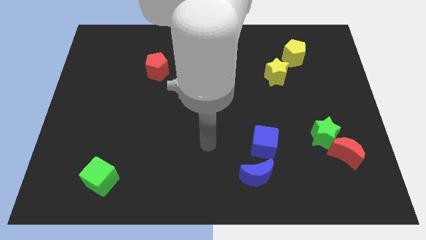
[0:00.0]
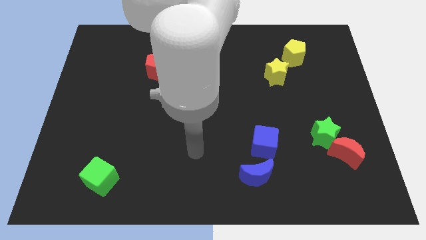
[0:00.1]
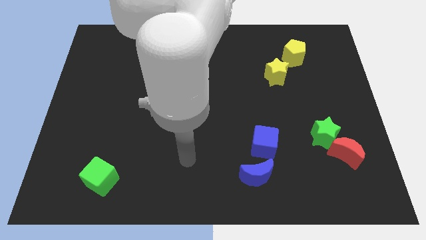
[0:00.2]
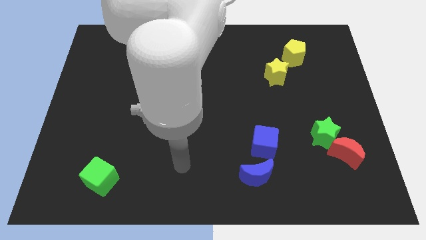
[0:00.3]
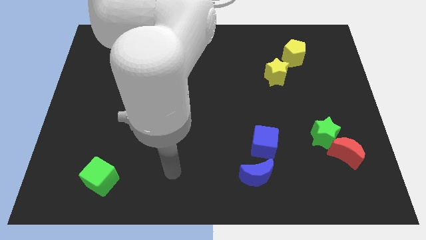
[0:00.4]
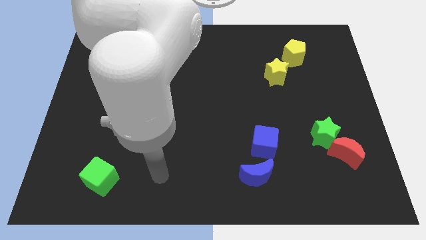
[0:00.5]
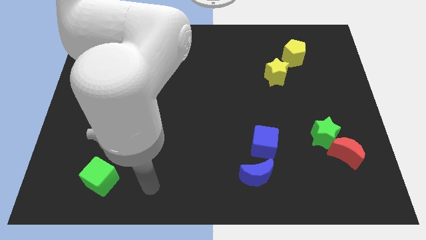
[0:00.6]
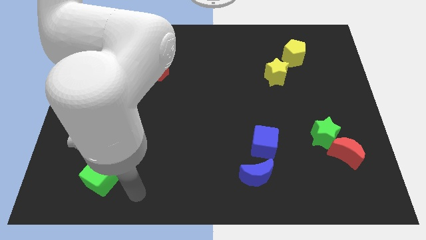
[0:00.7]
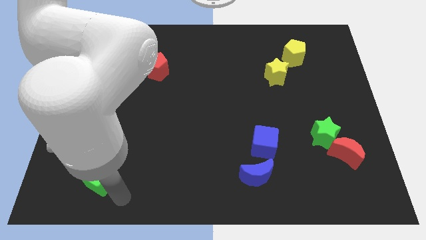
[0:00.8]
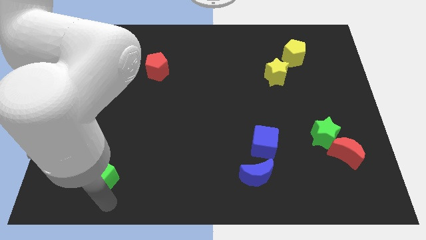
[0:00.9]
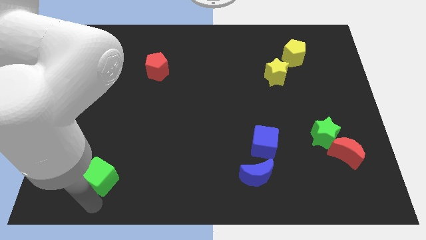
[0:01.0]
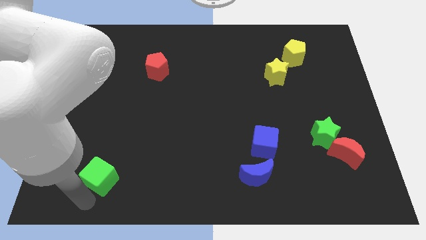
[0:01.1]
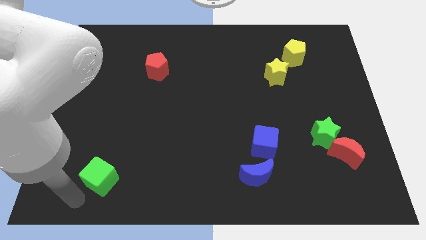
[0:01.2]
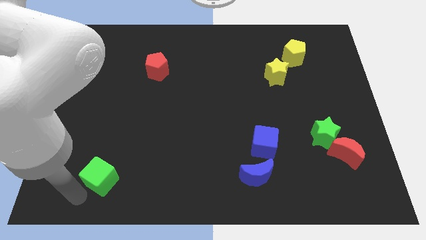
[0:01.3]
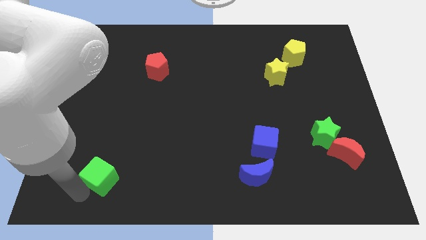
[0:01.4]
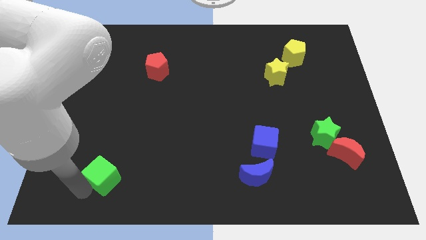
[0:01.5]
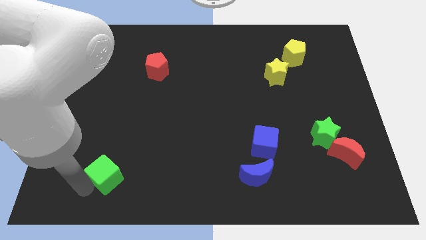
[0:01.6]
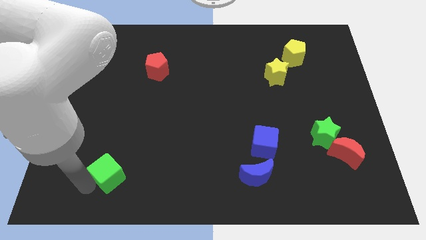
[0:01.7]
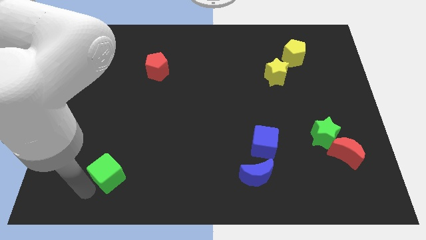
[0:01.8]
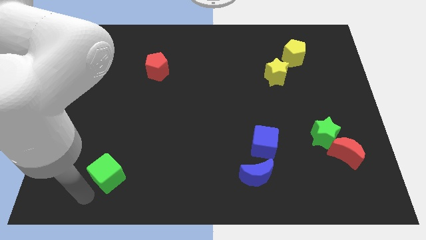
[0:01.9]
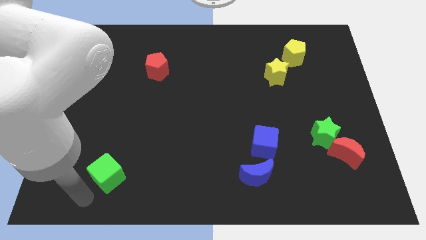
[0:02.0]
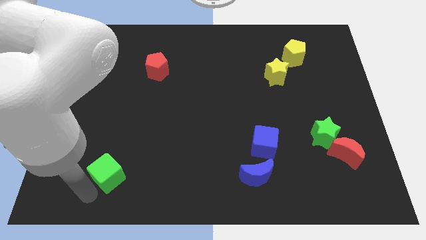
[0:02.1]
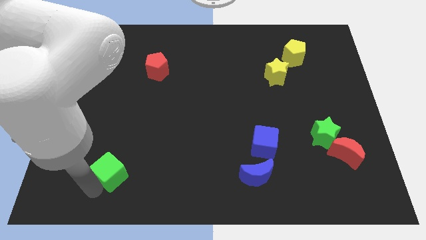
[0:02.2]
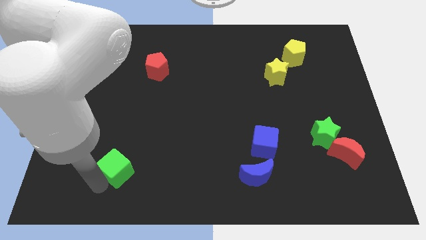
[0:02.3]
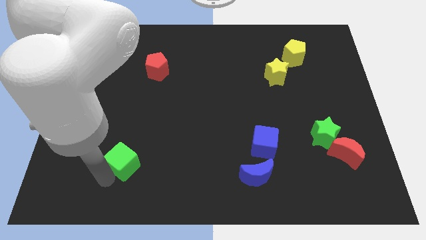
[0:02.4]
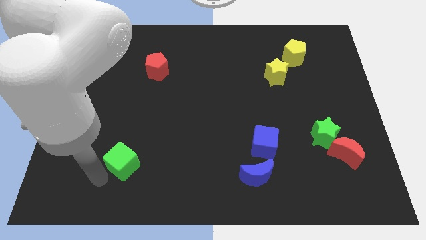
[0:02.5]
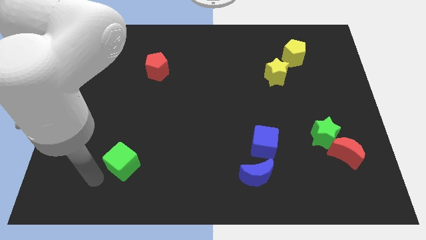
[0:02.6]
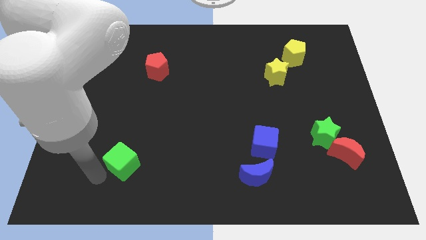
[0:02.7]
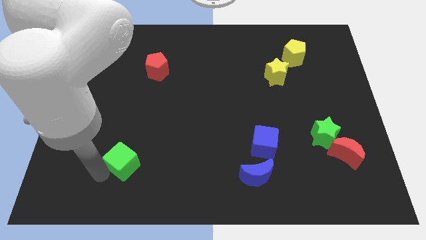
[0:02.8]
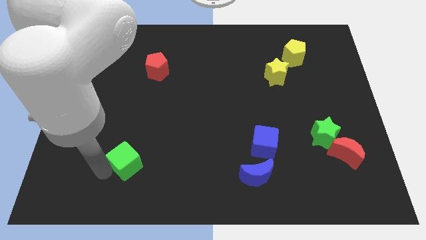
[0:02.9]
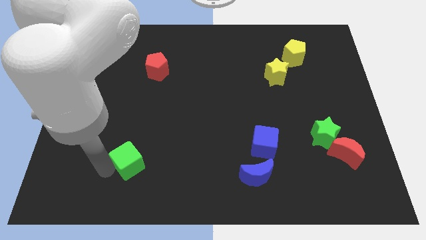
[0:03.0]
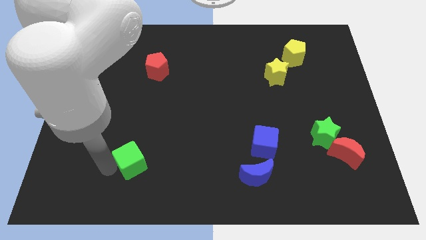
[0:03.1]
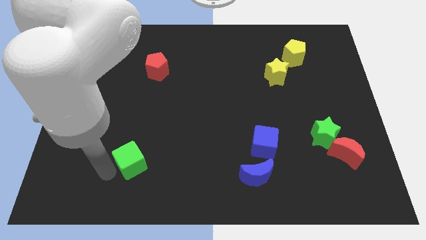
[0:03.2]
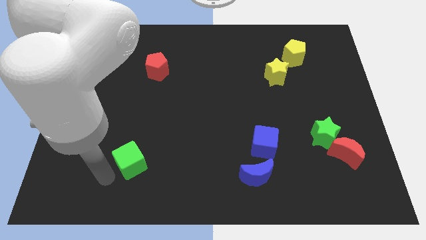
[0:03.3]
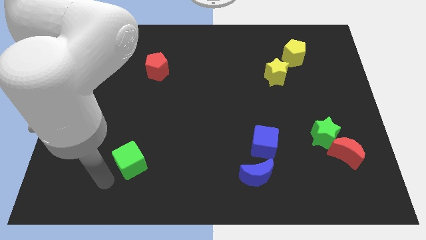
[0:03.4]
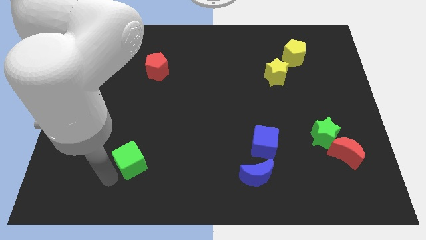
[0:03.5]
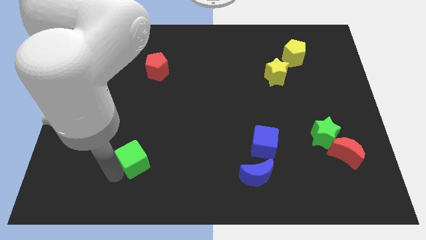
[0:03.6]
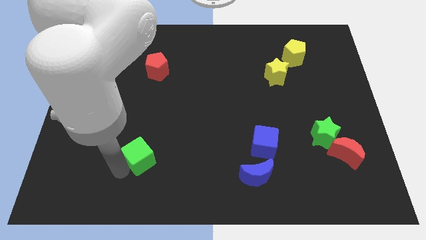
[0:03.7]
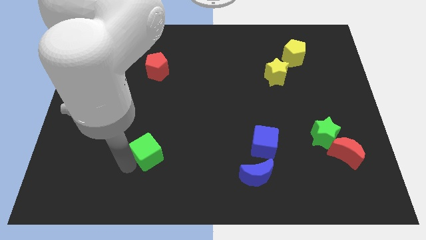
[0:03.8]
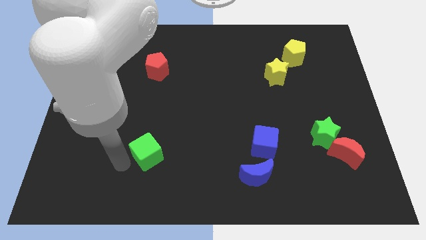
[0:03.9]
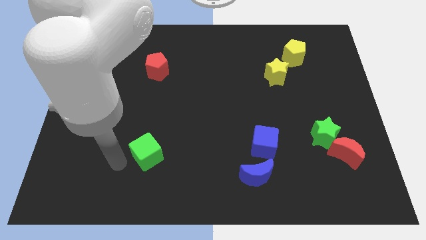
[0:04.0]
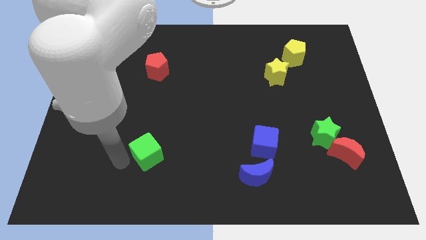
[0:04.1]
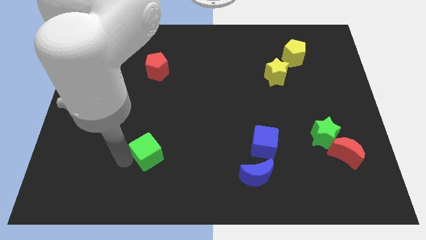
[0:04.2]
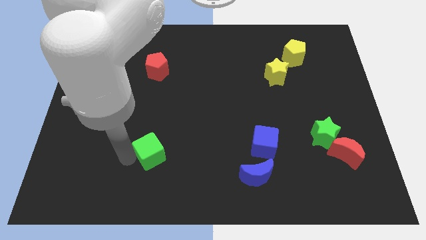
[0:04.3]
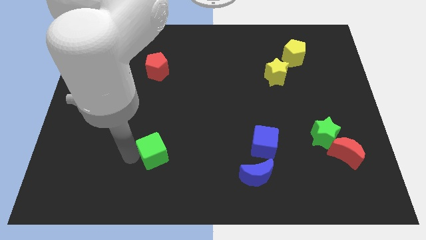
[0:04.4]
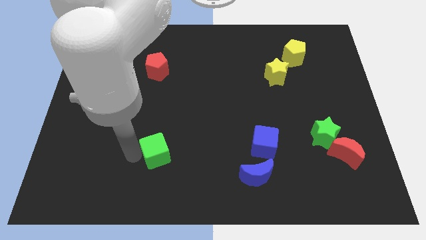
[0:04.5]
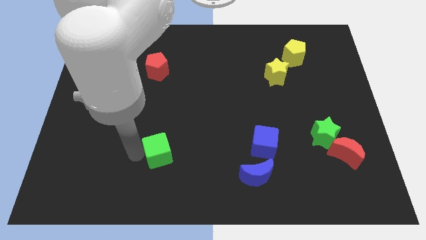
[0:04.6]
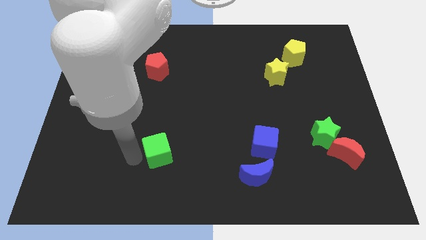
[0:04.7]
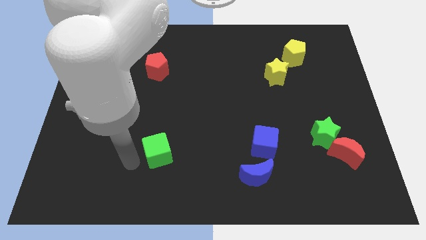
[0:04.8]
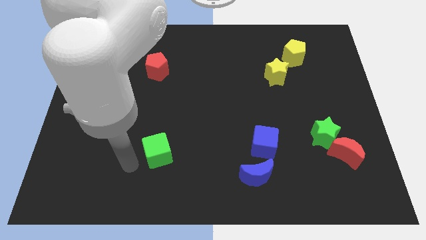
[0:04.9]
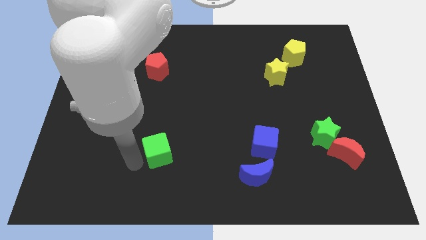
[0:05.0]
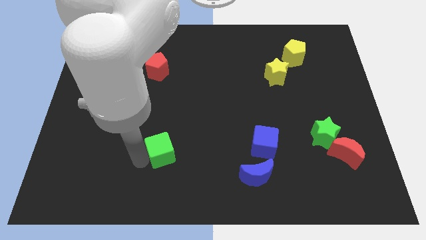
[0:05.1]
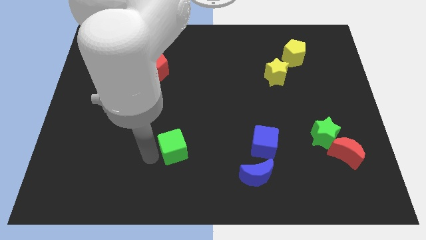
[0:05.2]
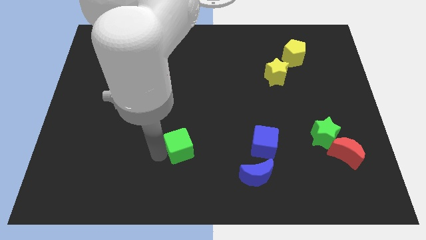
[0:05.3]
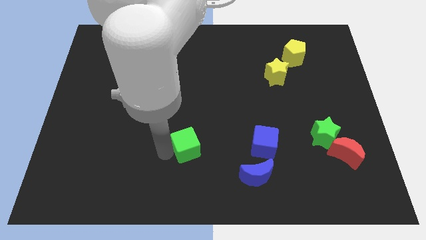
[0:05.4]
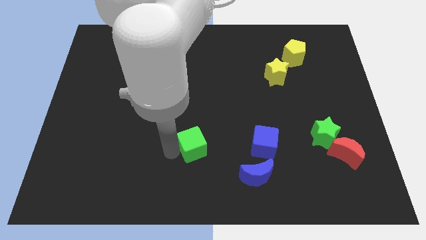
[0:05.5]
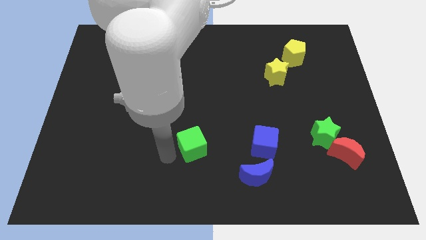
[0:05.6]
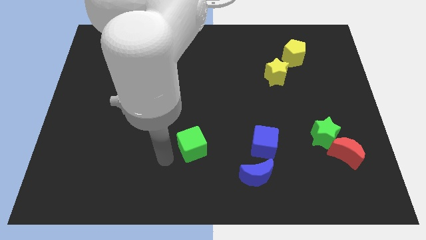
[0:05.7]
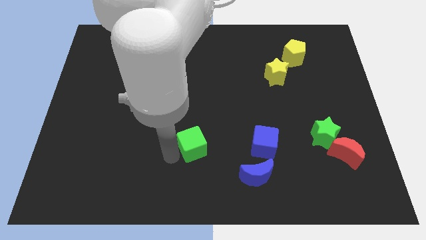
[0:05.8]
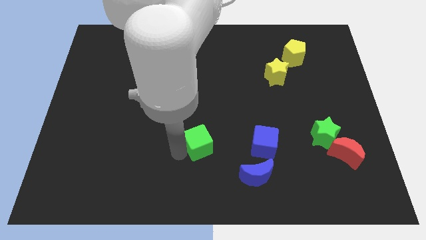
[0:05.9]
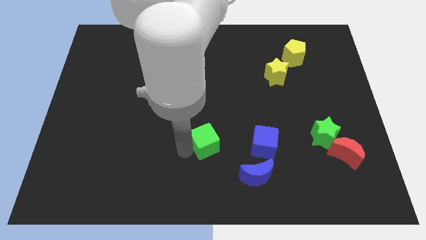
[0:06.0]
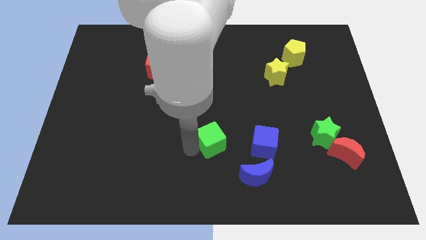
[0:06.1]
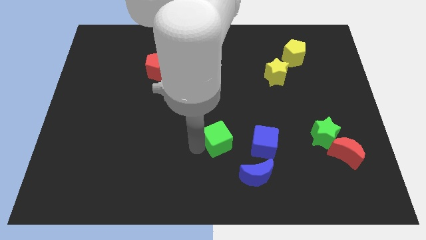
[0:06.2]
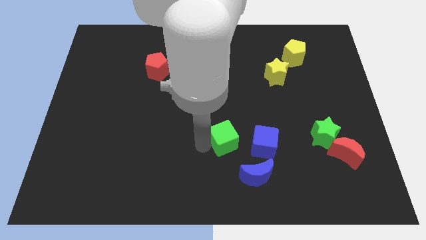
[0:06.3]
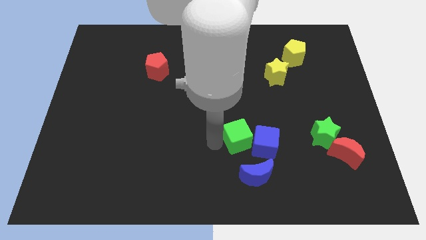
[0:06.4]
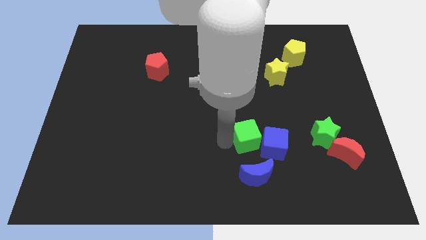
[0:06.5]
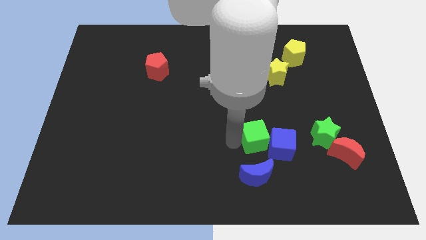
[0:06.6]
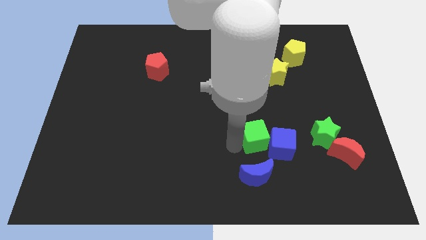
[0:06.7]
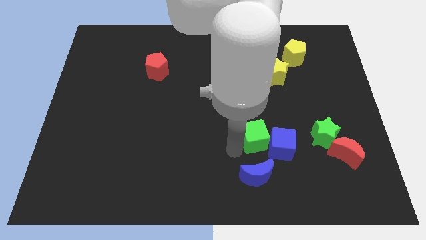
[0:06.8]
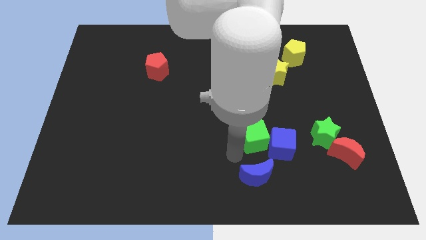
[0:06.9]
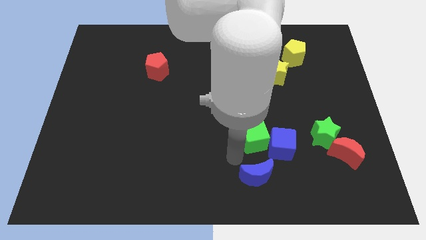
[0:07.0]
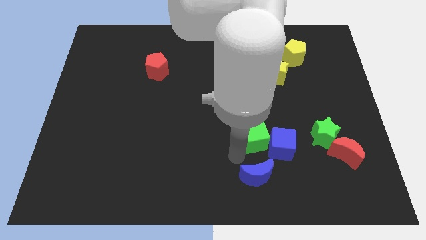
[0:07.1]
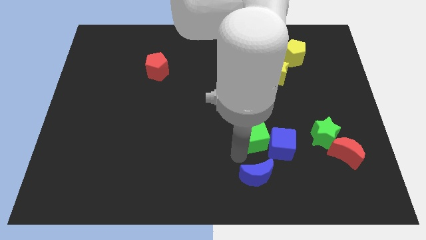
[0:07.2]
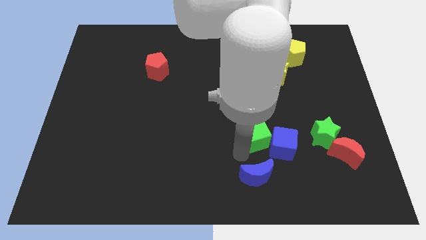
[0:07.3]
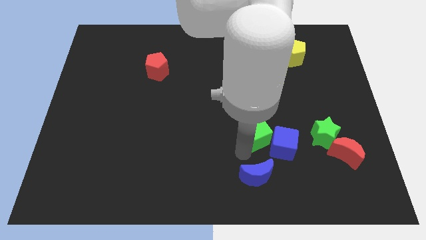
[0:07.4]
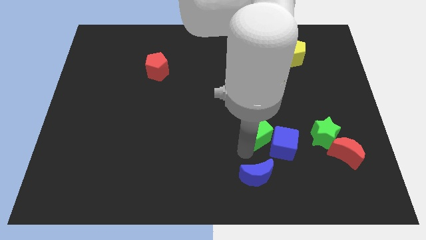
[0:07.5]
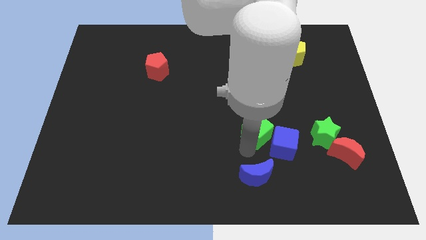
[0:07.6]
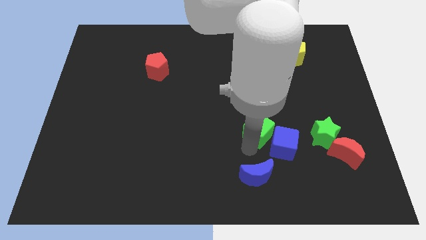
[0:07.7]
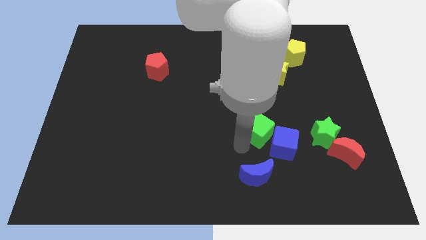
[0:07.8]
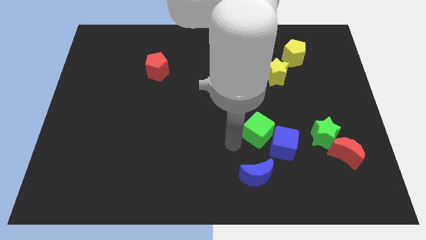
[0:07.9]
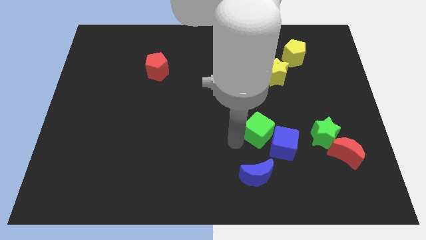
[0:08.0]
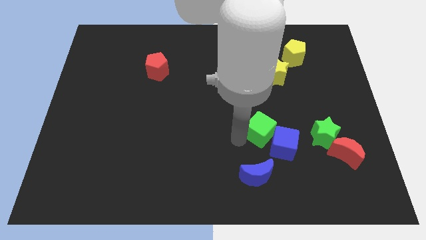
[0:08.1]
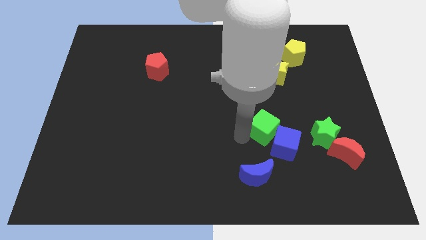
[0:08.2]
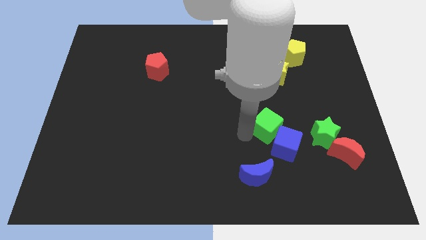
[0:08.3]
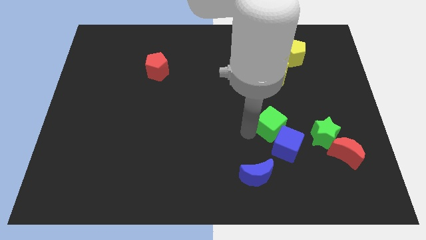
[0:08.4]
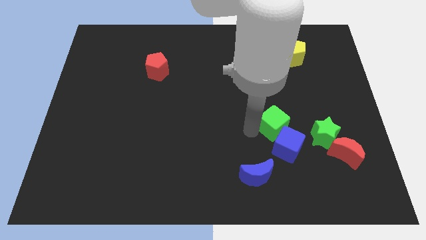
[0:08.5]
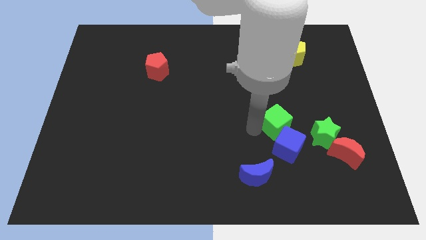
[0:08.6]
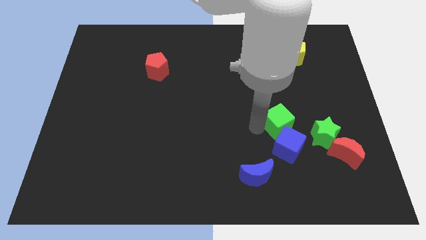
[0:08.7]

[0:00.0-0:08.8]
slide the green cube to the top left of the green star
